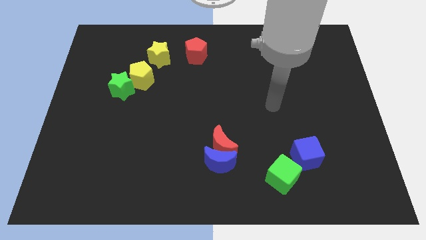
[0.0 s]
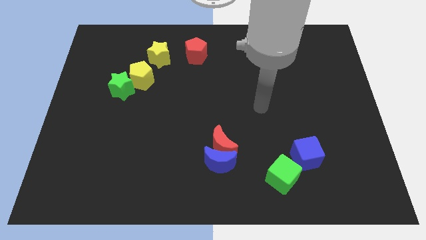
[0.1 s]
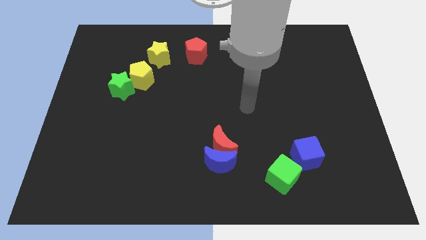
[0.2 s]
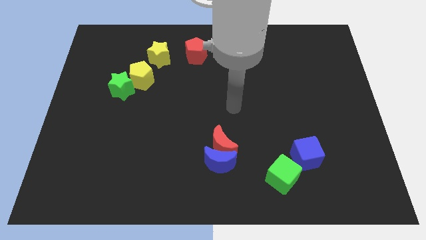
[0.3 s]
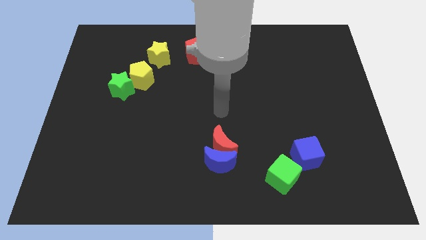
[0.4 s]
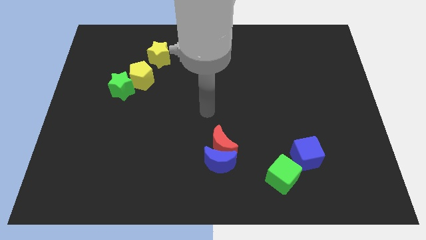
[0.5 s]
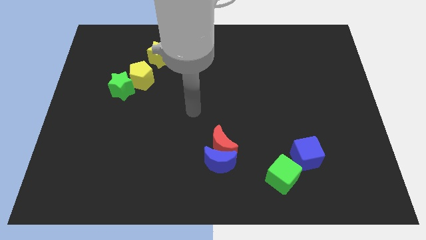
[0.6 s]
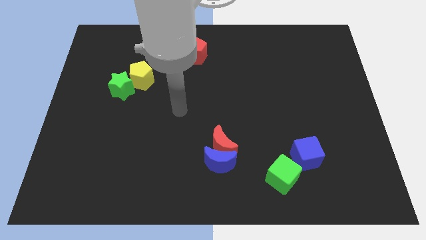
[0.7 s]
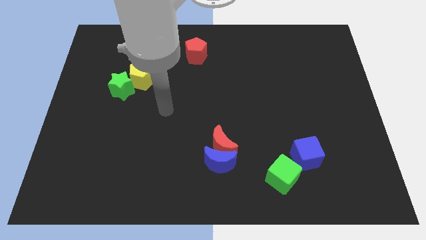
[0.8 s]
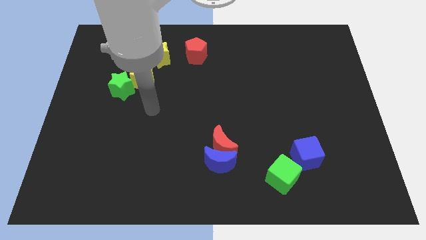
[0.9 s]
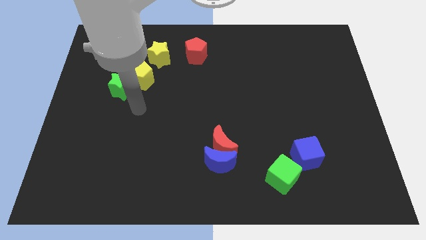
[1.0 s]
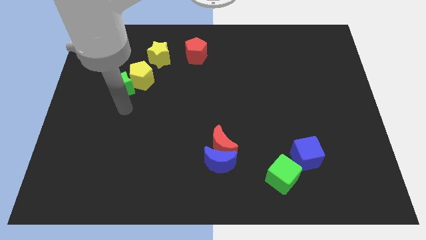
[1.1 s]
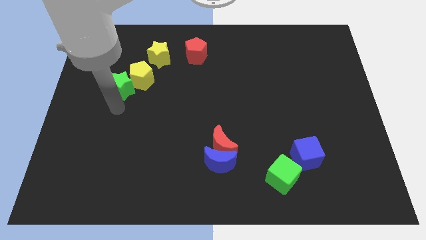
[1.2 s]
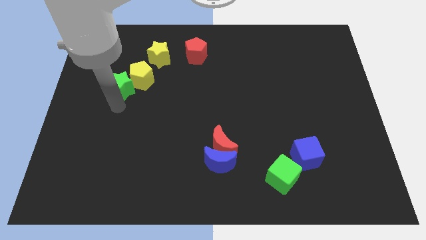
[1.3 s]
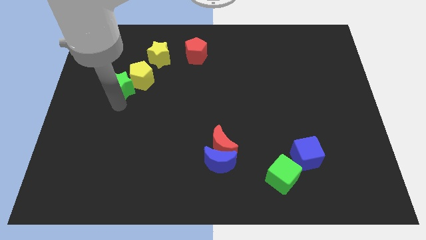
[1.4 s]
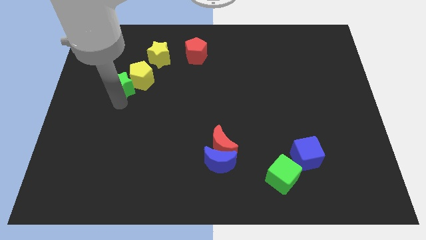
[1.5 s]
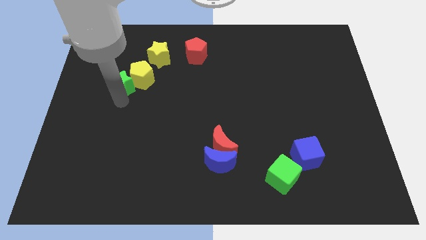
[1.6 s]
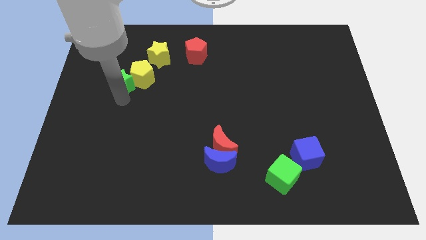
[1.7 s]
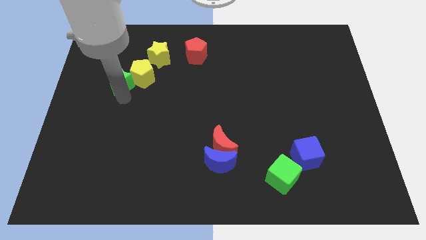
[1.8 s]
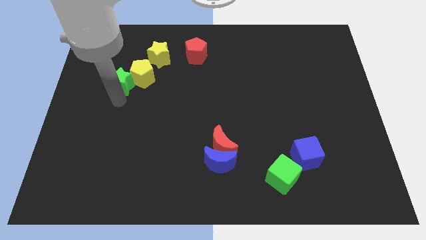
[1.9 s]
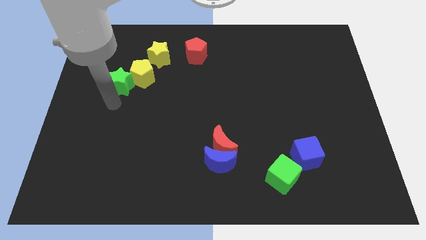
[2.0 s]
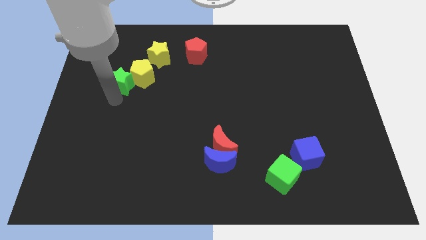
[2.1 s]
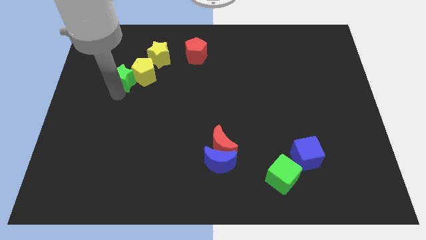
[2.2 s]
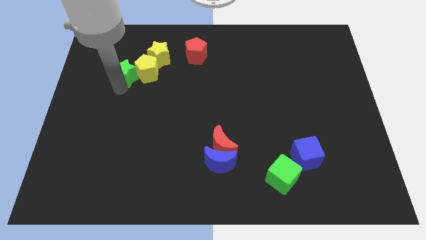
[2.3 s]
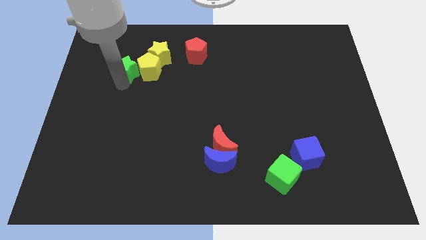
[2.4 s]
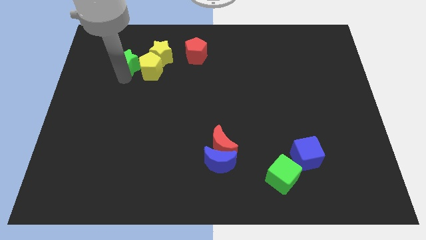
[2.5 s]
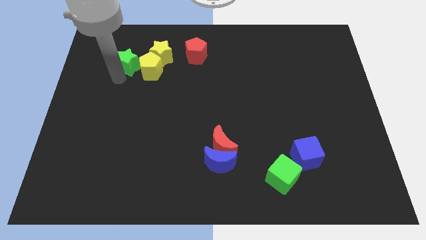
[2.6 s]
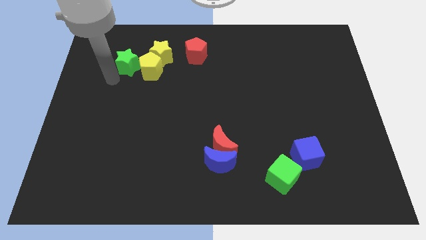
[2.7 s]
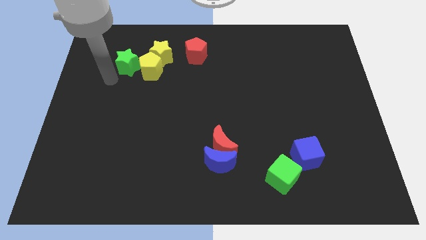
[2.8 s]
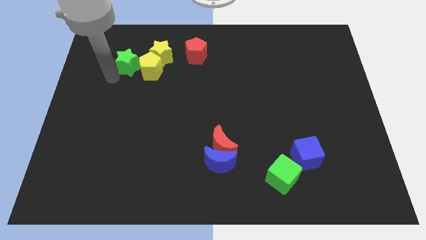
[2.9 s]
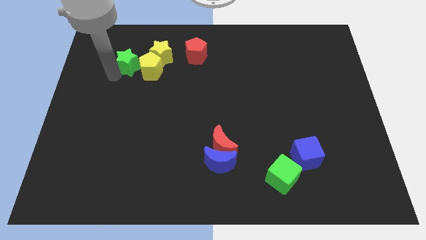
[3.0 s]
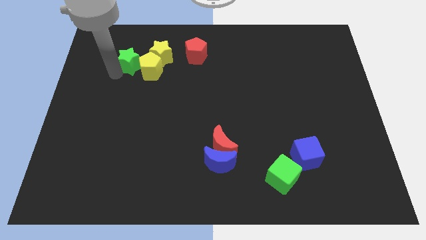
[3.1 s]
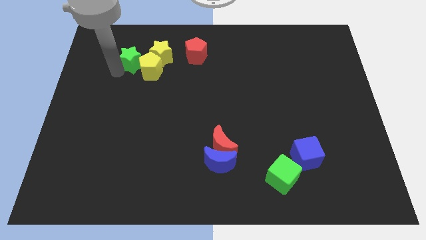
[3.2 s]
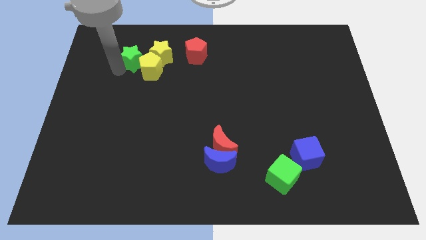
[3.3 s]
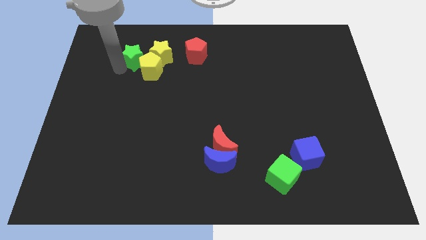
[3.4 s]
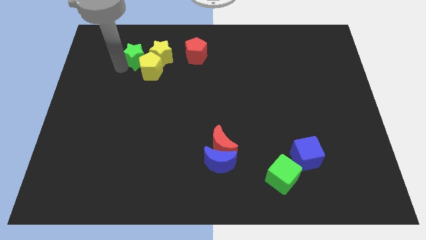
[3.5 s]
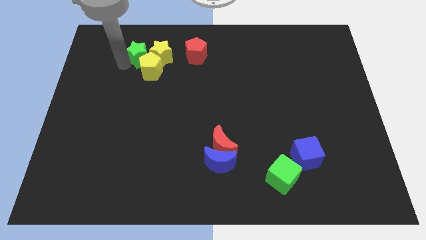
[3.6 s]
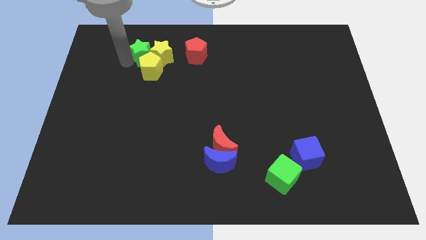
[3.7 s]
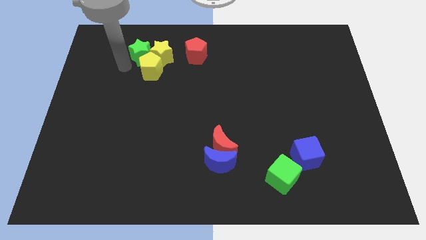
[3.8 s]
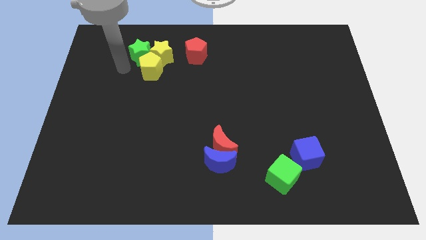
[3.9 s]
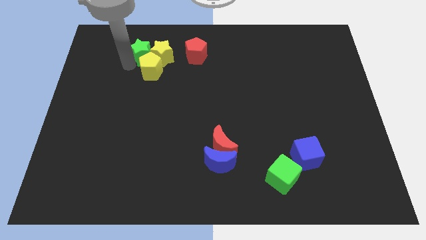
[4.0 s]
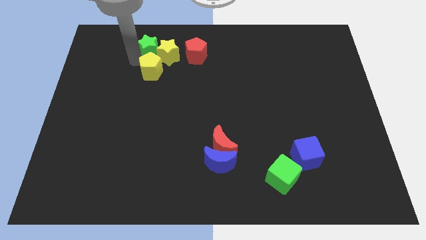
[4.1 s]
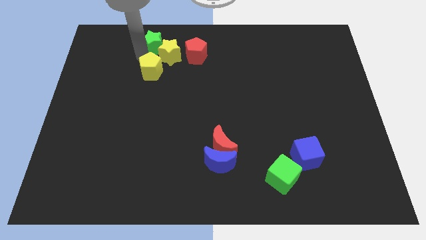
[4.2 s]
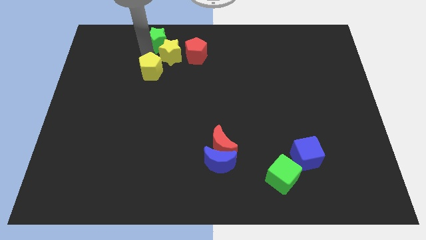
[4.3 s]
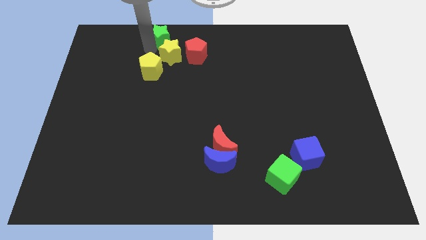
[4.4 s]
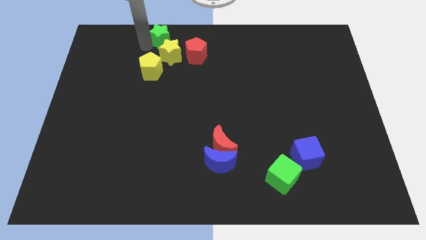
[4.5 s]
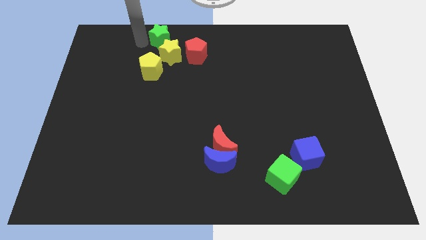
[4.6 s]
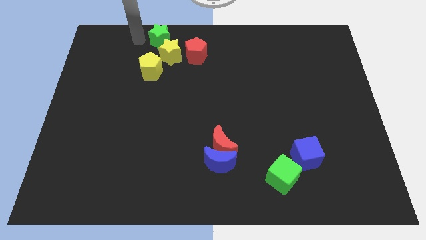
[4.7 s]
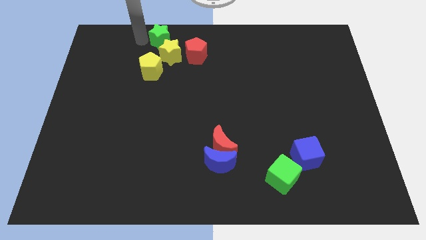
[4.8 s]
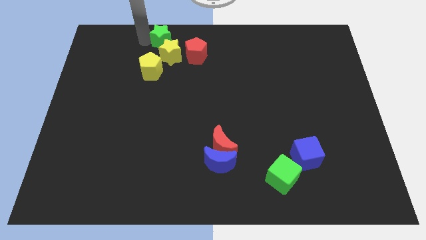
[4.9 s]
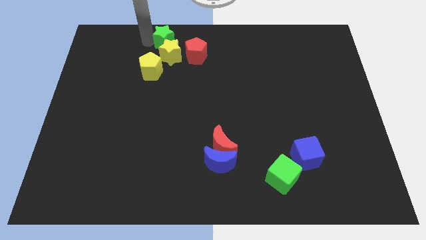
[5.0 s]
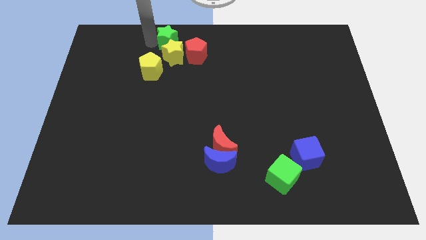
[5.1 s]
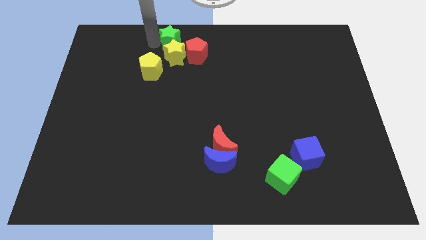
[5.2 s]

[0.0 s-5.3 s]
slide the green star to the top side

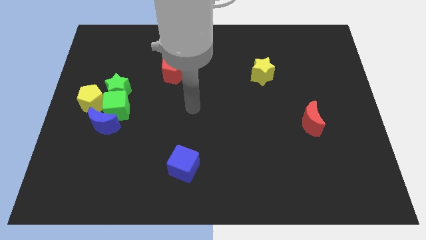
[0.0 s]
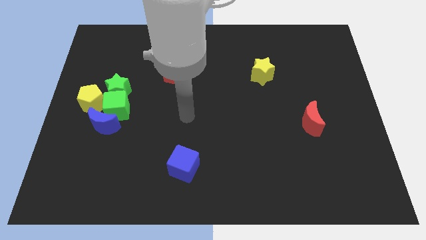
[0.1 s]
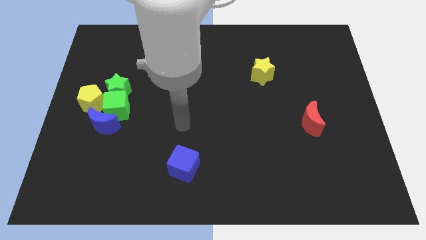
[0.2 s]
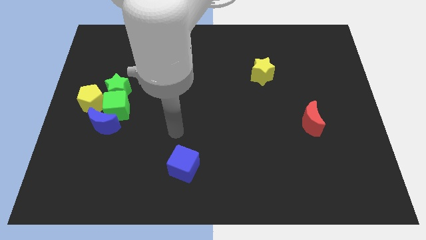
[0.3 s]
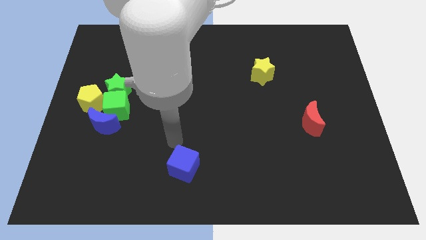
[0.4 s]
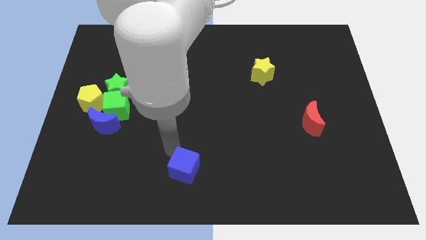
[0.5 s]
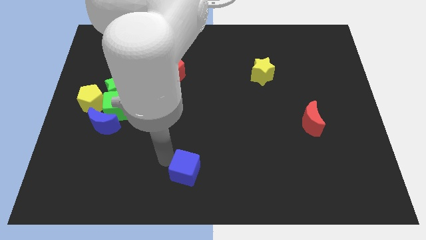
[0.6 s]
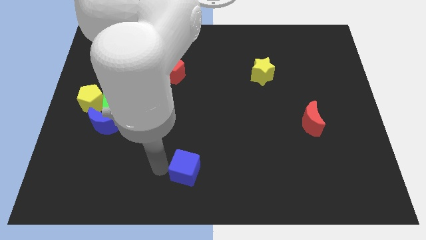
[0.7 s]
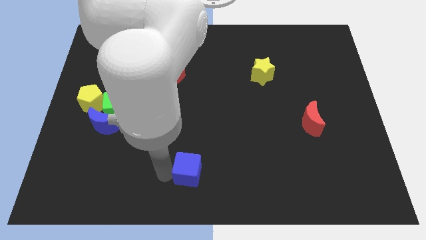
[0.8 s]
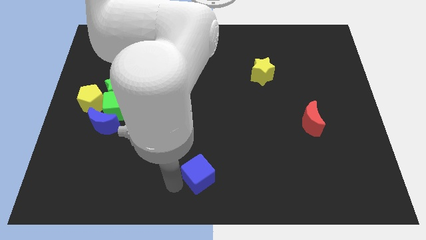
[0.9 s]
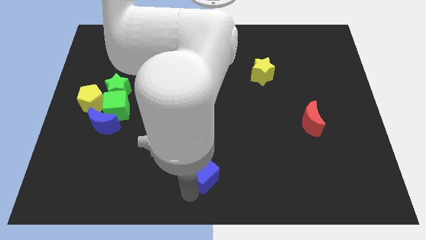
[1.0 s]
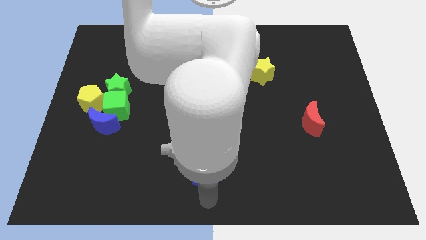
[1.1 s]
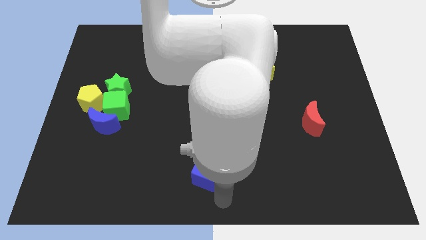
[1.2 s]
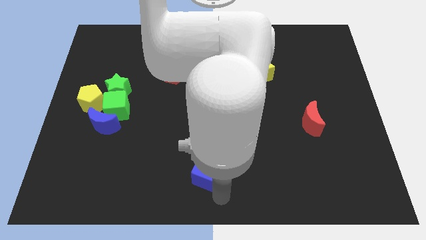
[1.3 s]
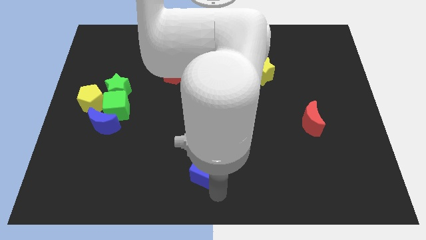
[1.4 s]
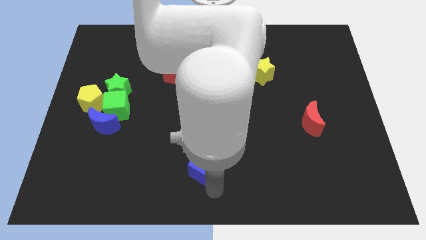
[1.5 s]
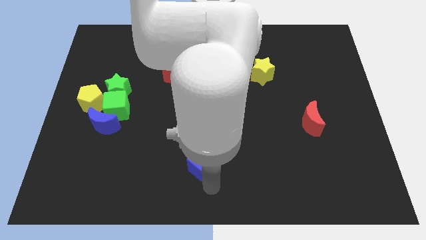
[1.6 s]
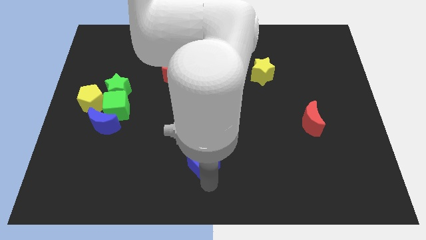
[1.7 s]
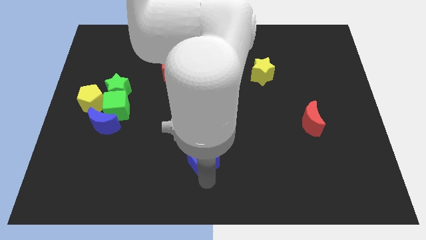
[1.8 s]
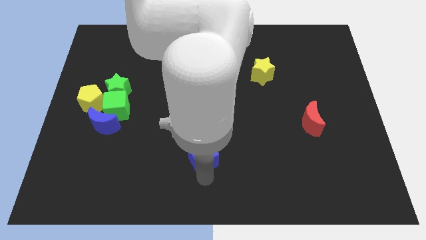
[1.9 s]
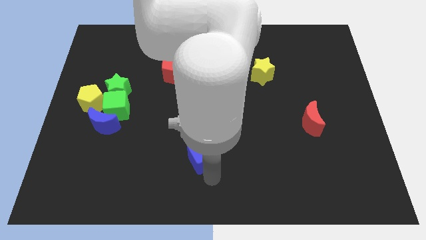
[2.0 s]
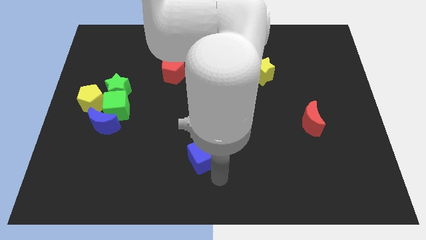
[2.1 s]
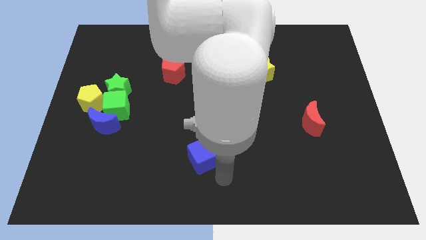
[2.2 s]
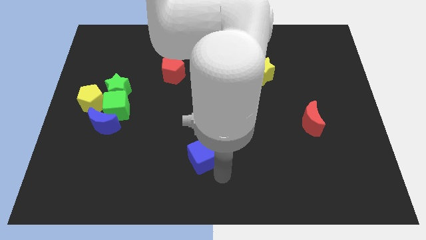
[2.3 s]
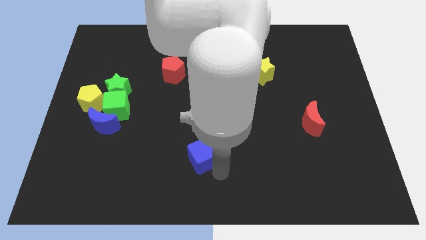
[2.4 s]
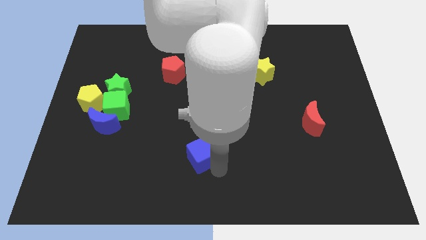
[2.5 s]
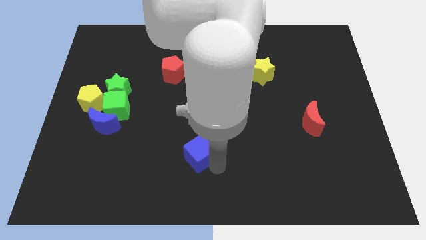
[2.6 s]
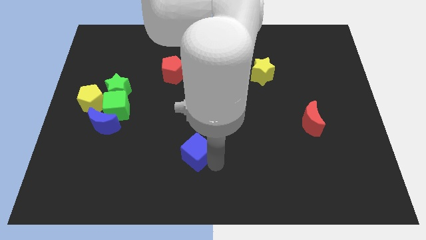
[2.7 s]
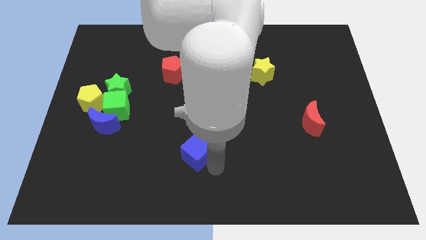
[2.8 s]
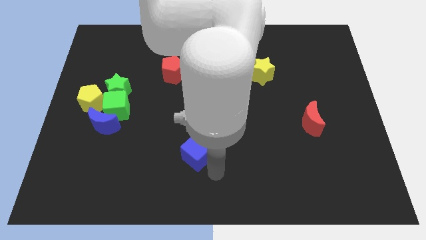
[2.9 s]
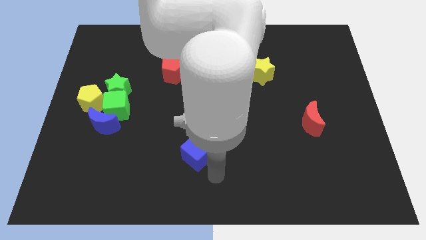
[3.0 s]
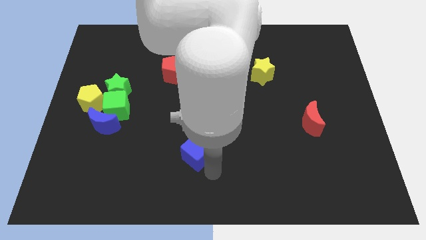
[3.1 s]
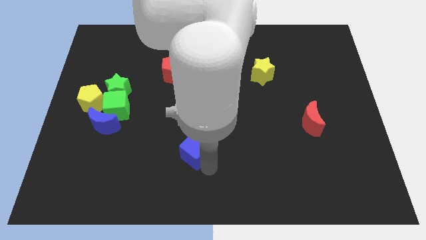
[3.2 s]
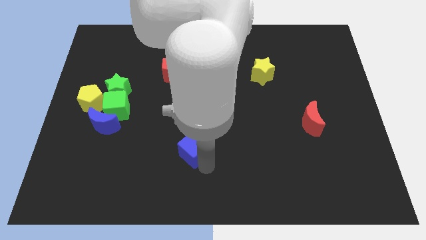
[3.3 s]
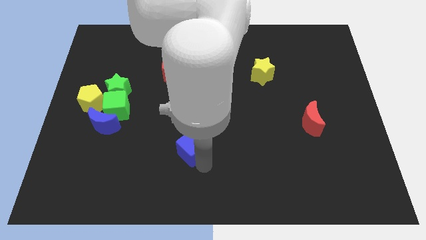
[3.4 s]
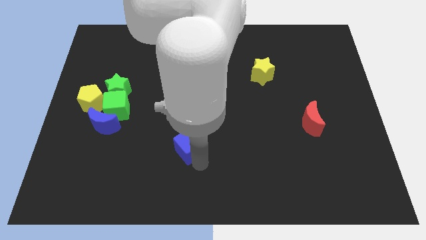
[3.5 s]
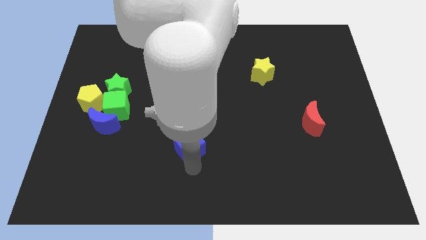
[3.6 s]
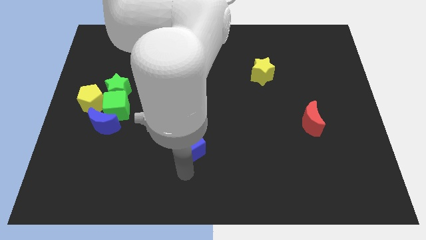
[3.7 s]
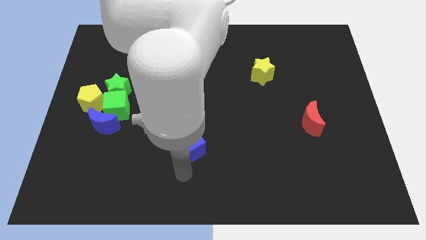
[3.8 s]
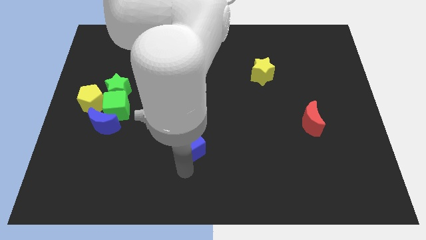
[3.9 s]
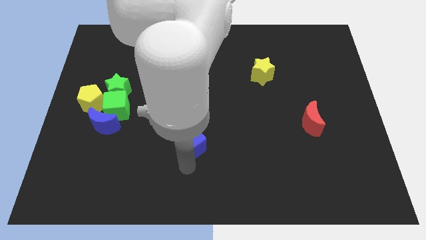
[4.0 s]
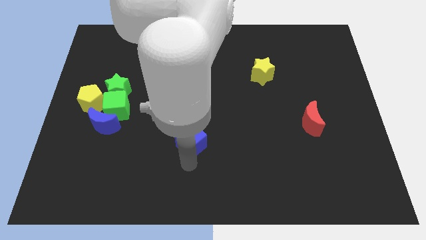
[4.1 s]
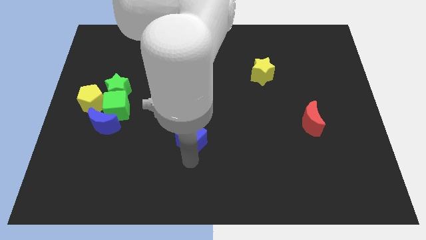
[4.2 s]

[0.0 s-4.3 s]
push the blue cube to the middle
